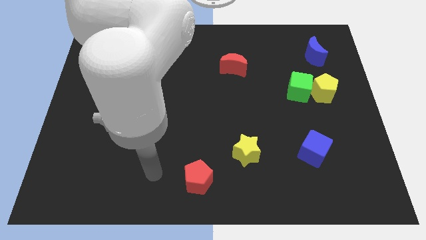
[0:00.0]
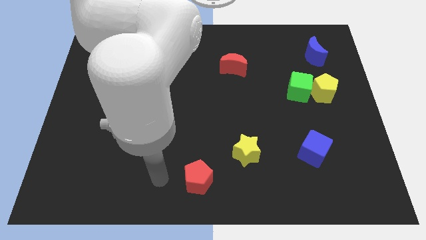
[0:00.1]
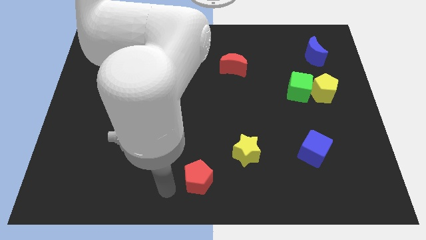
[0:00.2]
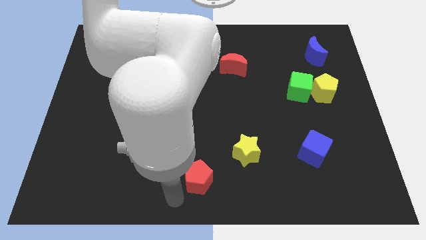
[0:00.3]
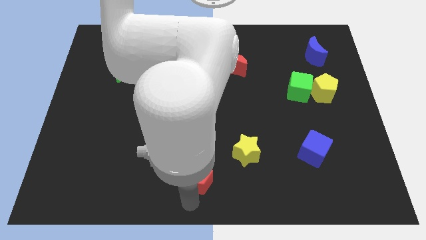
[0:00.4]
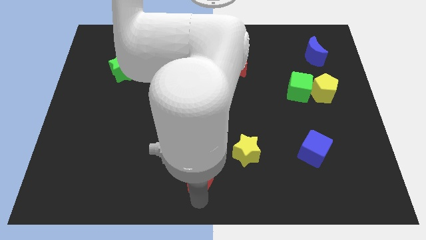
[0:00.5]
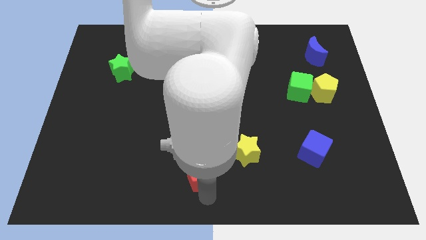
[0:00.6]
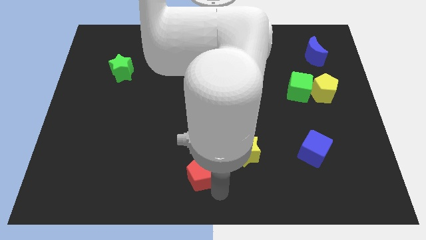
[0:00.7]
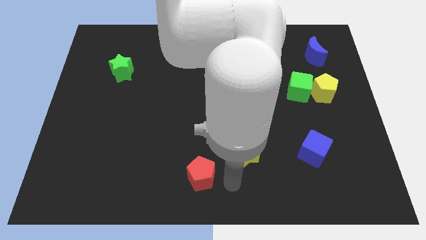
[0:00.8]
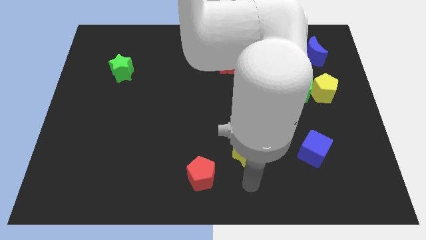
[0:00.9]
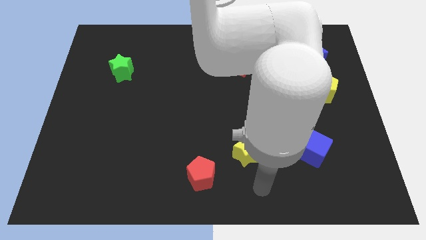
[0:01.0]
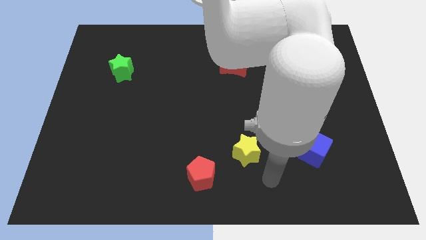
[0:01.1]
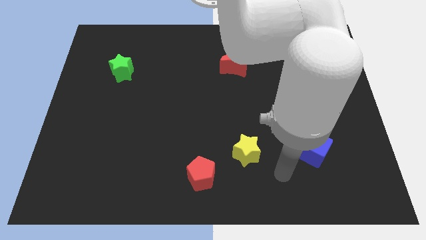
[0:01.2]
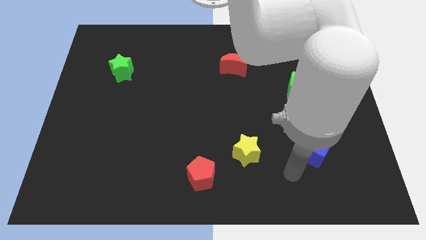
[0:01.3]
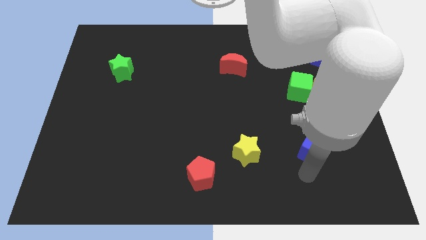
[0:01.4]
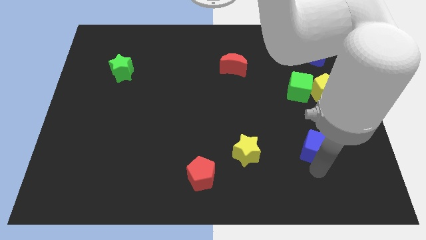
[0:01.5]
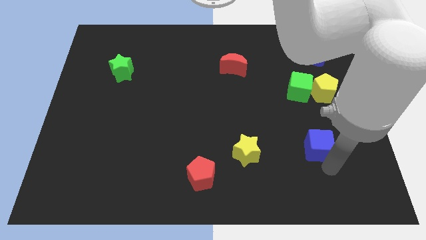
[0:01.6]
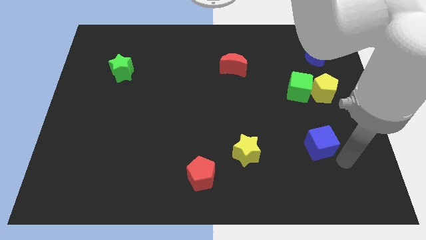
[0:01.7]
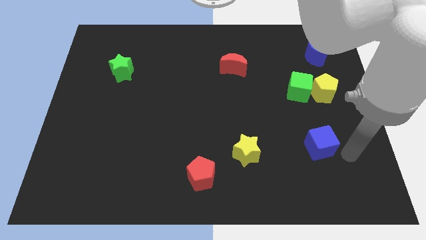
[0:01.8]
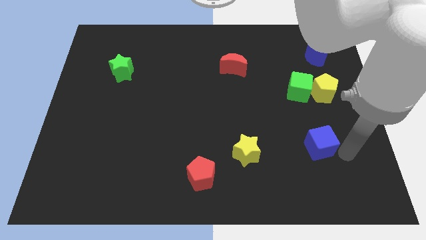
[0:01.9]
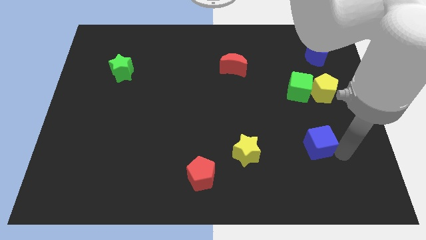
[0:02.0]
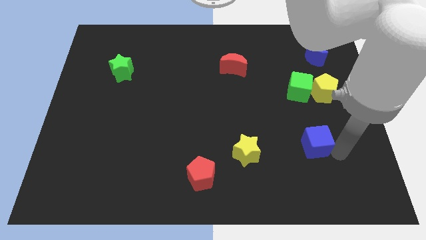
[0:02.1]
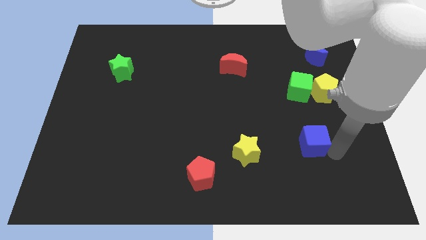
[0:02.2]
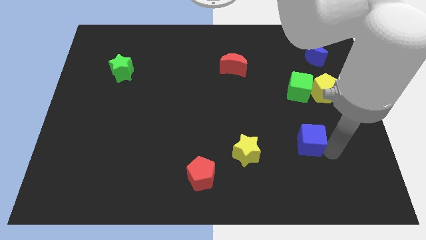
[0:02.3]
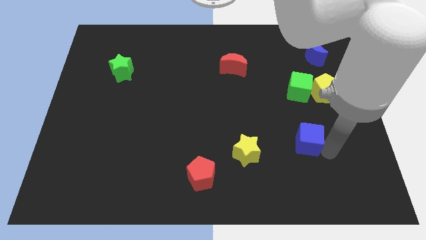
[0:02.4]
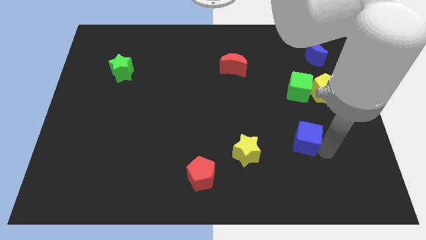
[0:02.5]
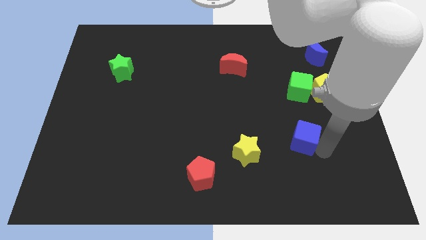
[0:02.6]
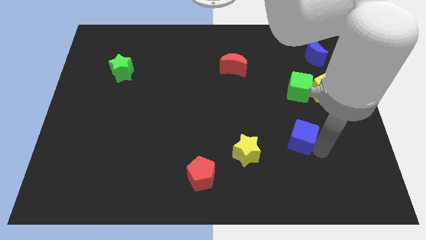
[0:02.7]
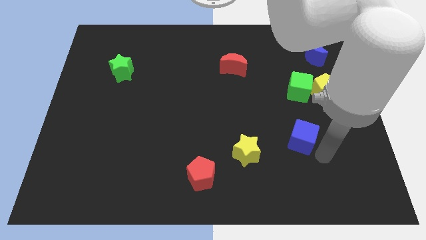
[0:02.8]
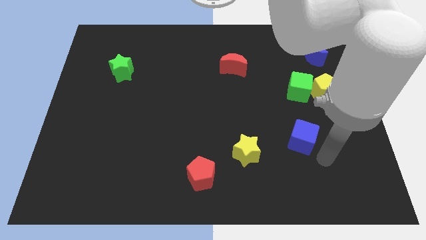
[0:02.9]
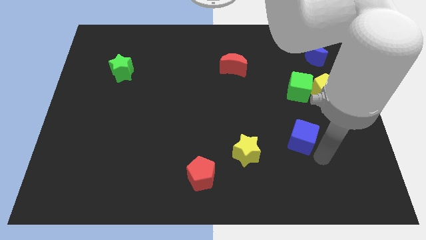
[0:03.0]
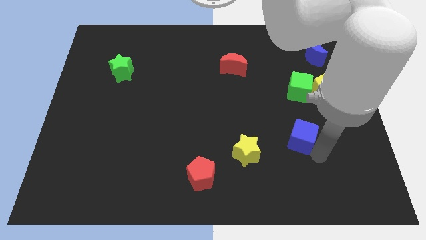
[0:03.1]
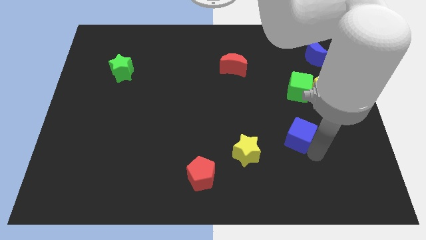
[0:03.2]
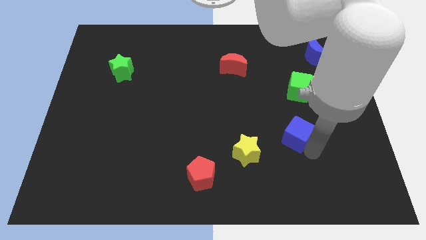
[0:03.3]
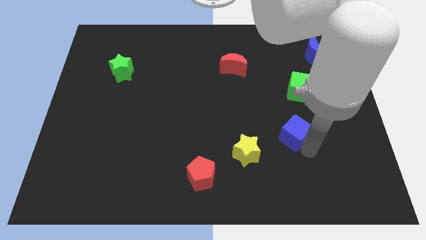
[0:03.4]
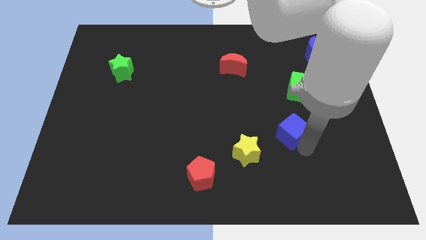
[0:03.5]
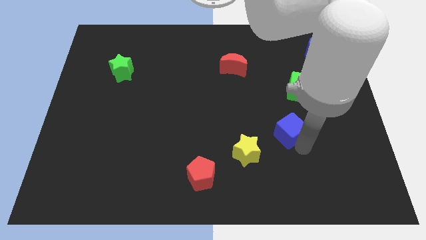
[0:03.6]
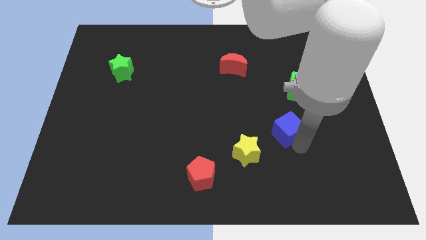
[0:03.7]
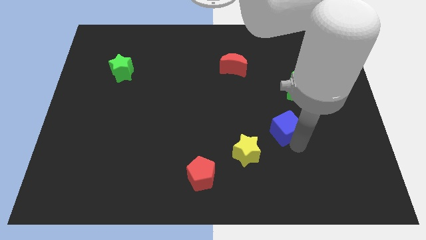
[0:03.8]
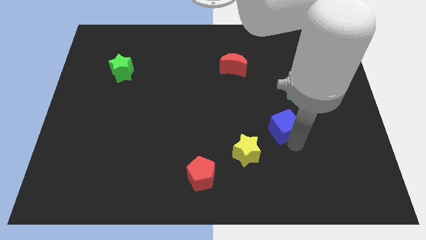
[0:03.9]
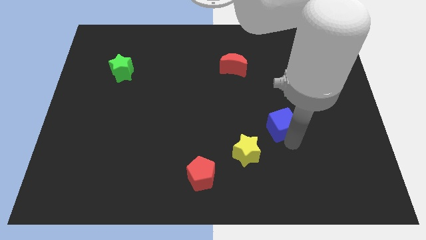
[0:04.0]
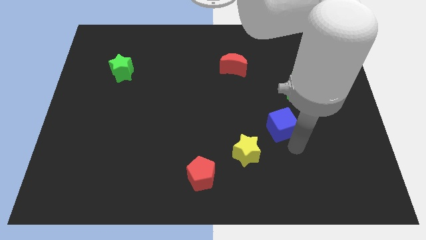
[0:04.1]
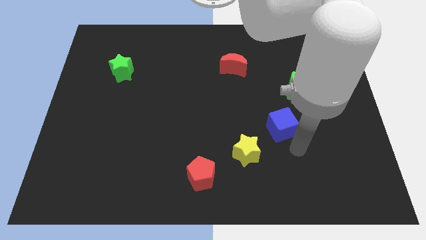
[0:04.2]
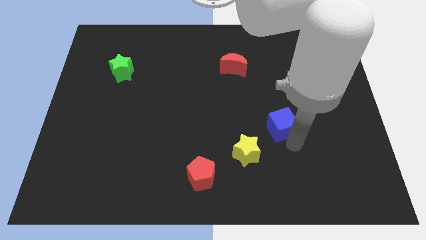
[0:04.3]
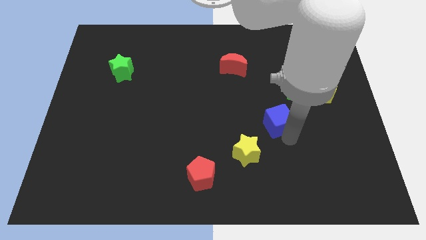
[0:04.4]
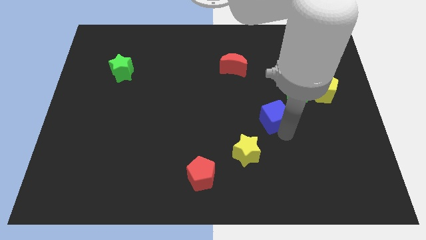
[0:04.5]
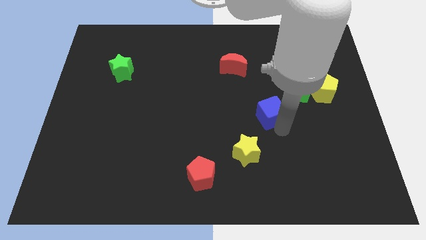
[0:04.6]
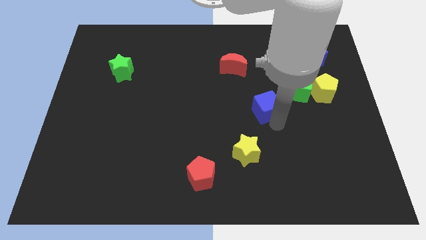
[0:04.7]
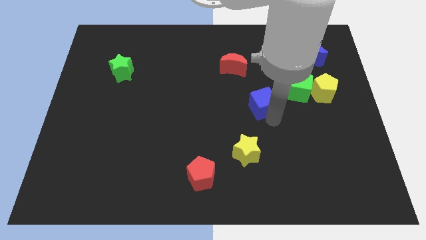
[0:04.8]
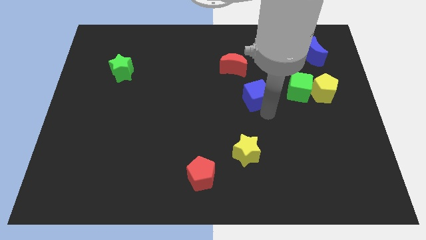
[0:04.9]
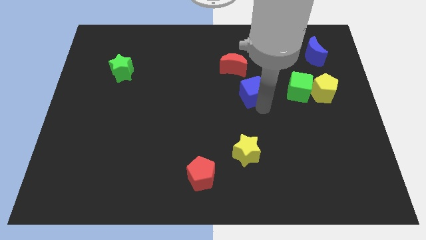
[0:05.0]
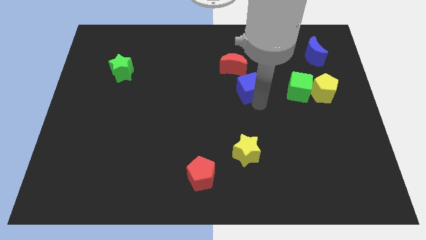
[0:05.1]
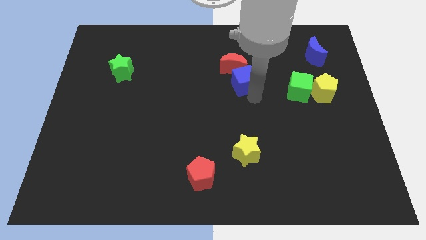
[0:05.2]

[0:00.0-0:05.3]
move the blue cube next to the red moon

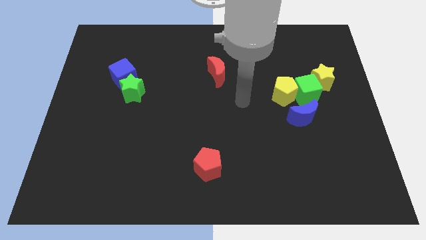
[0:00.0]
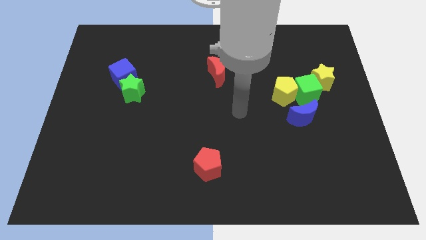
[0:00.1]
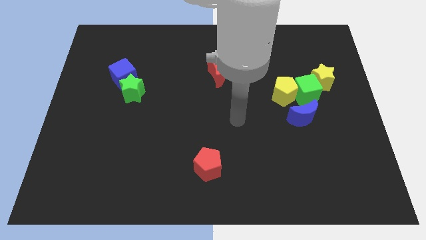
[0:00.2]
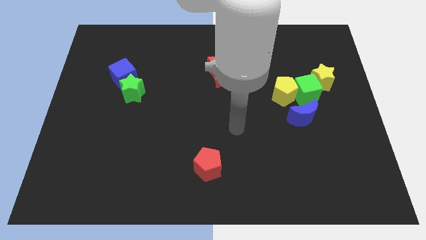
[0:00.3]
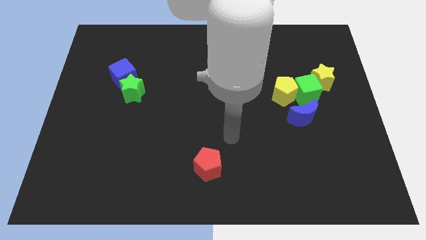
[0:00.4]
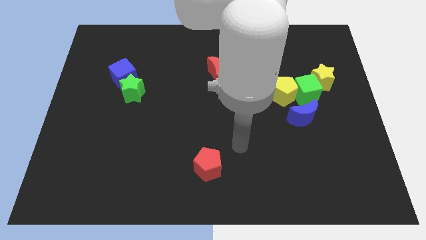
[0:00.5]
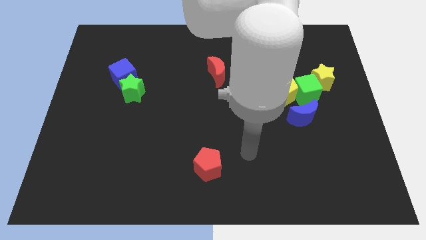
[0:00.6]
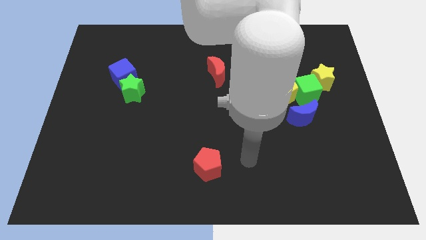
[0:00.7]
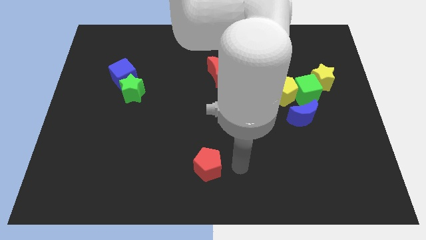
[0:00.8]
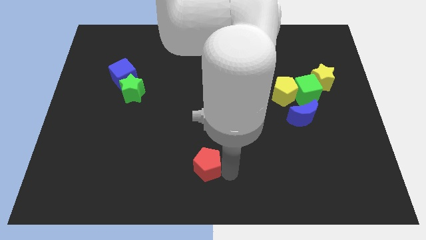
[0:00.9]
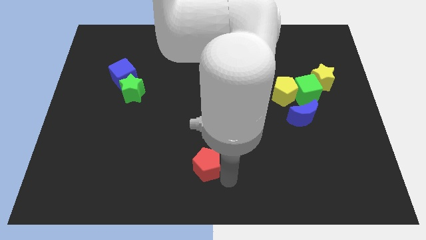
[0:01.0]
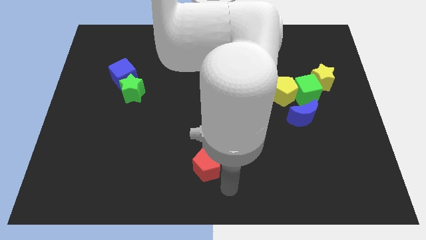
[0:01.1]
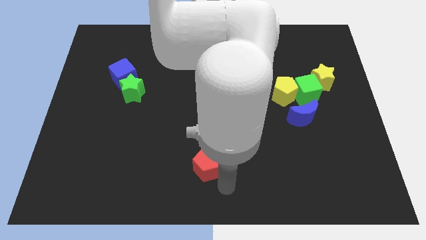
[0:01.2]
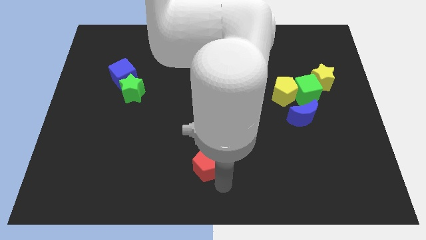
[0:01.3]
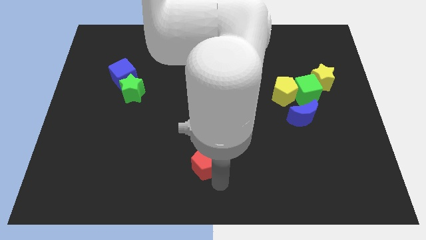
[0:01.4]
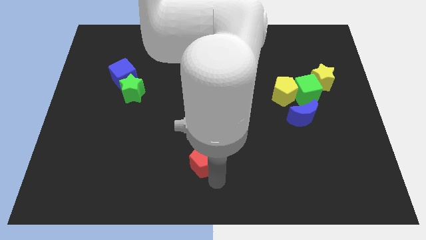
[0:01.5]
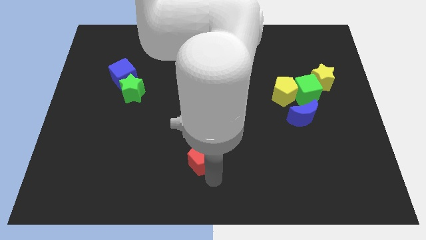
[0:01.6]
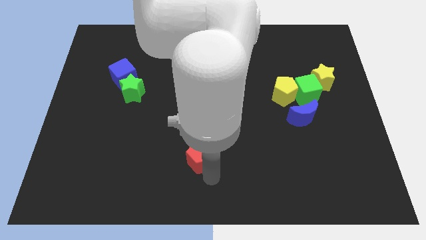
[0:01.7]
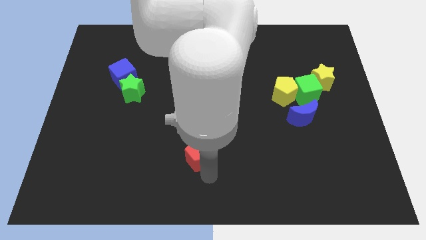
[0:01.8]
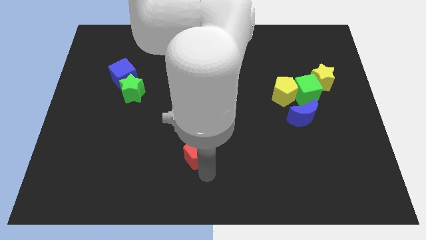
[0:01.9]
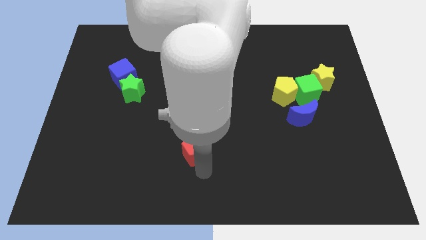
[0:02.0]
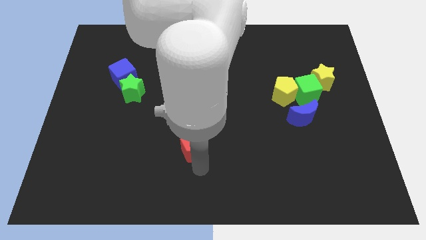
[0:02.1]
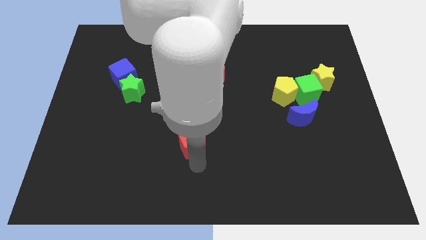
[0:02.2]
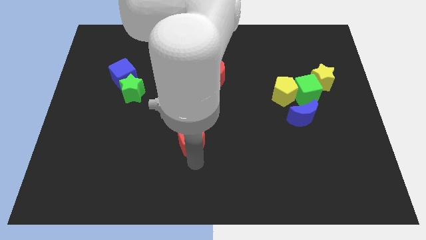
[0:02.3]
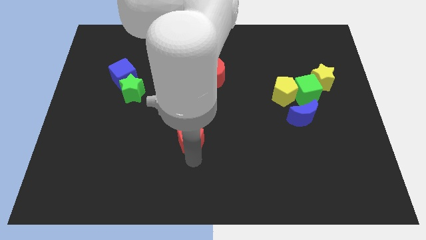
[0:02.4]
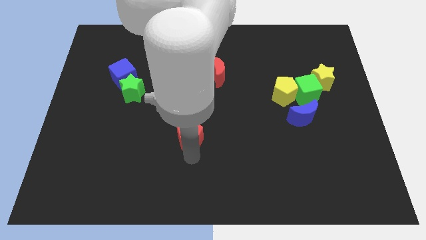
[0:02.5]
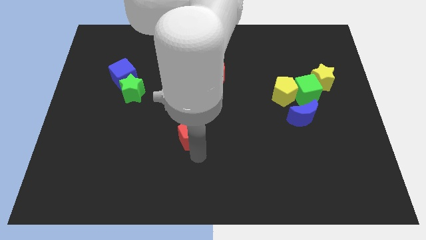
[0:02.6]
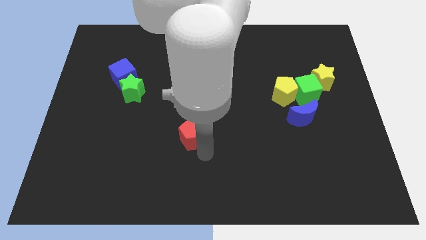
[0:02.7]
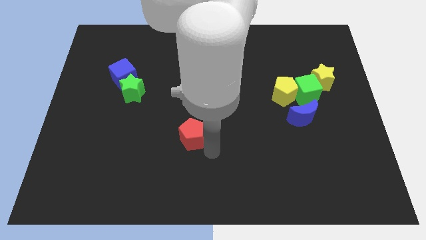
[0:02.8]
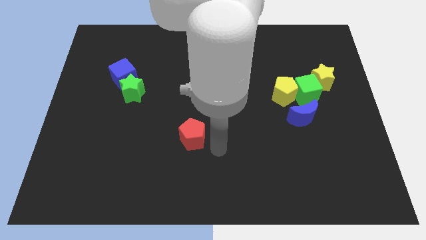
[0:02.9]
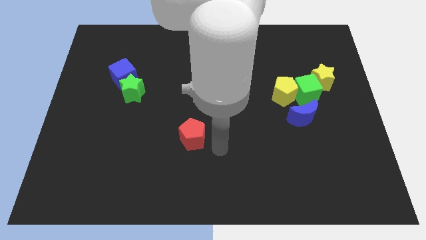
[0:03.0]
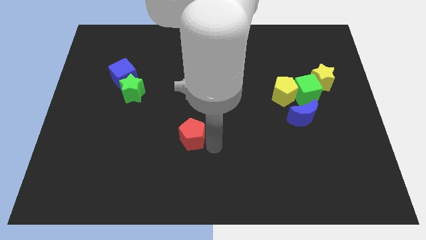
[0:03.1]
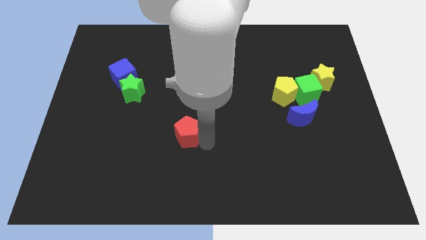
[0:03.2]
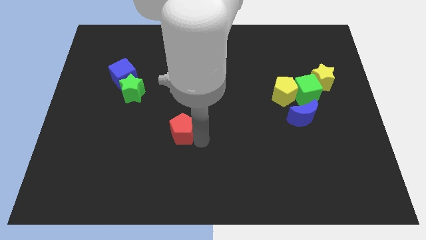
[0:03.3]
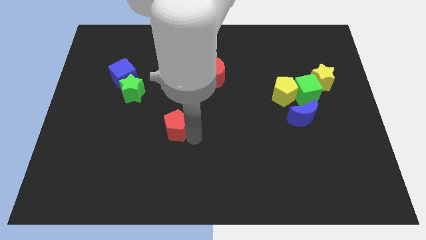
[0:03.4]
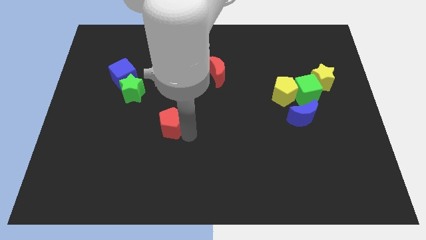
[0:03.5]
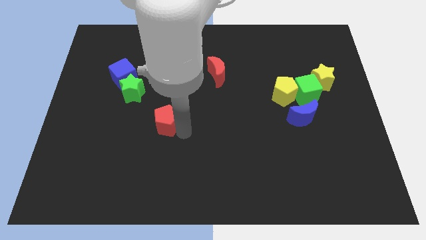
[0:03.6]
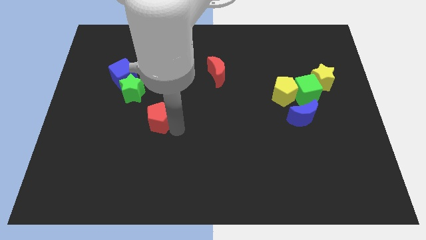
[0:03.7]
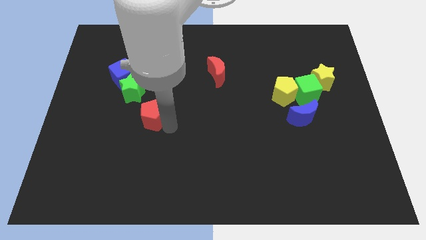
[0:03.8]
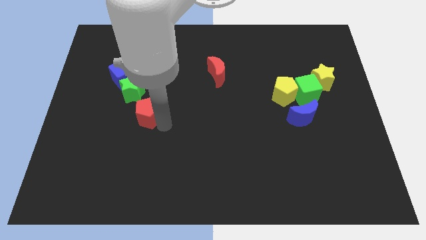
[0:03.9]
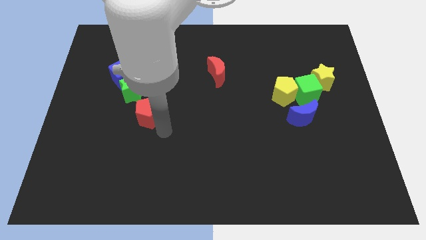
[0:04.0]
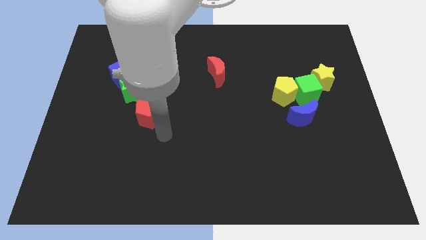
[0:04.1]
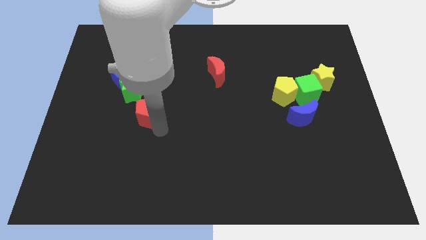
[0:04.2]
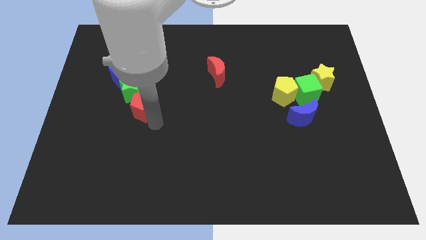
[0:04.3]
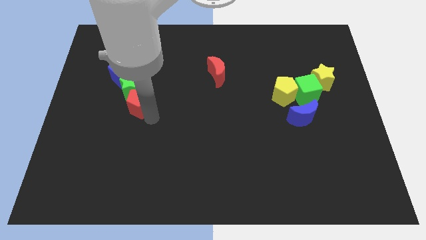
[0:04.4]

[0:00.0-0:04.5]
put the red pentagon towards the green star
